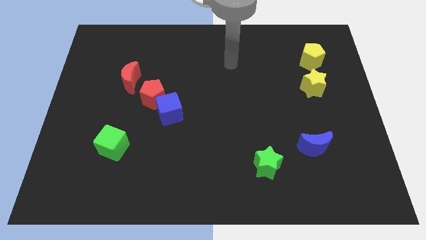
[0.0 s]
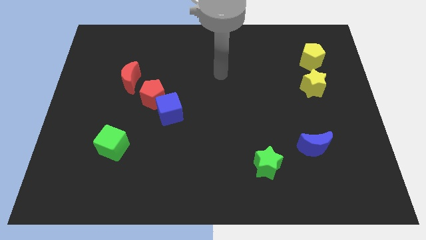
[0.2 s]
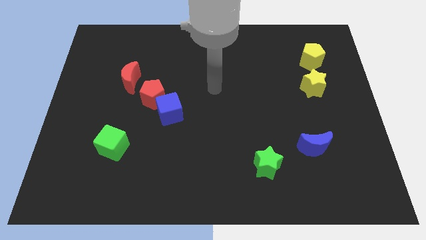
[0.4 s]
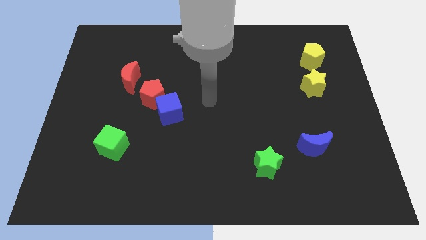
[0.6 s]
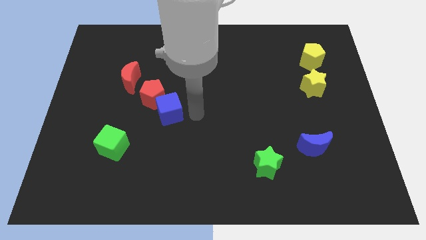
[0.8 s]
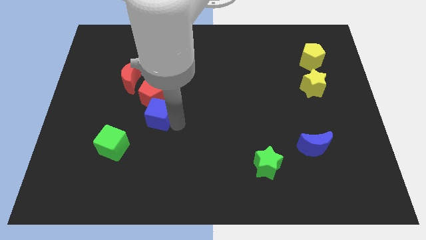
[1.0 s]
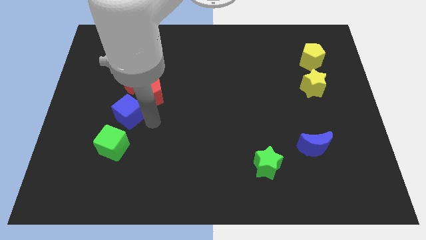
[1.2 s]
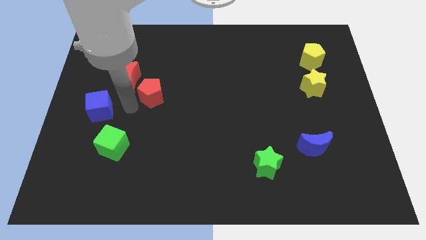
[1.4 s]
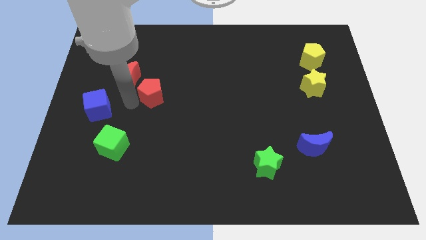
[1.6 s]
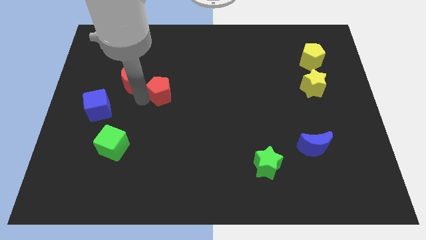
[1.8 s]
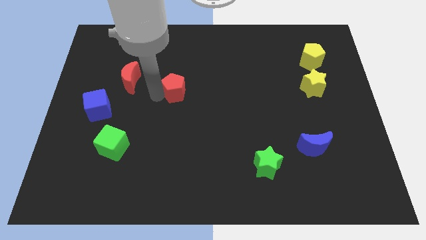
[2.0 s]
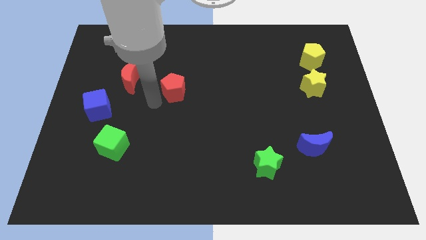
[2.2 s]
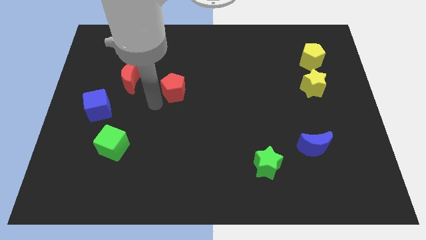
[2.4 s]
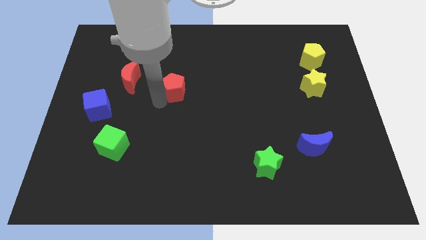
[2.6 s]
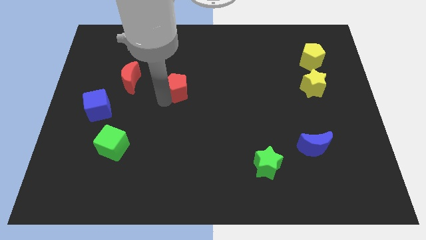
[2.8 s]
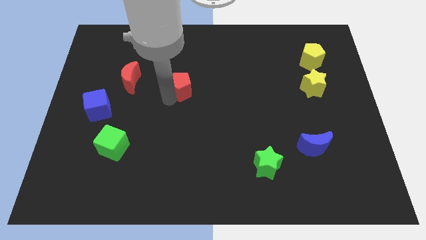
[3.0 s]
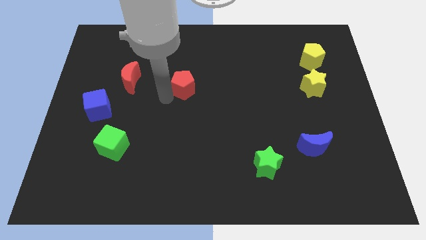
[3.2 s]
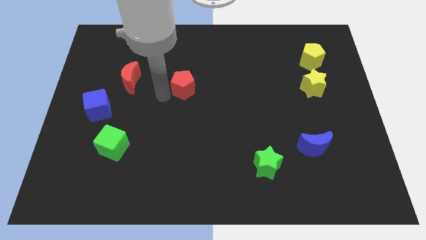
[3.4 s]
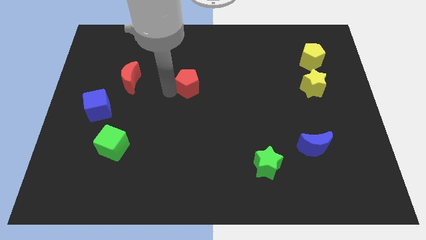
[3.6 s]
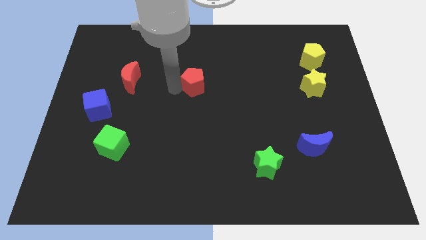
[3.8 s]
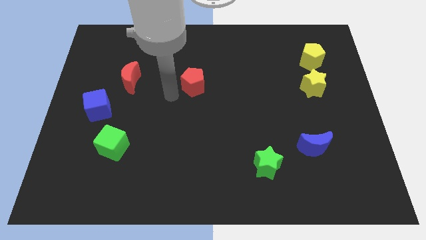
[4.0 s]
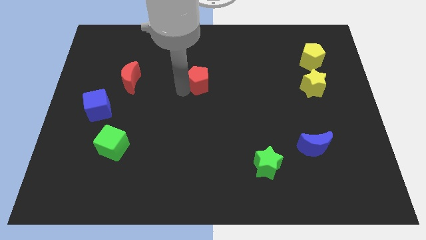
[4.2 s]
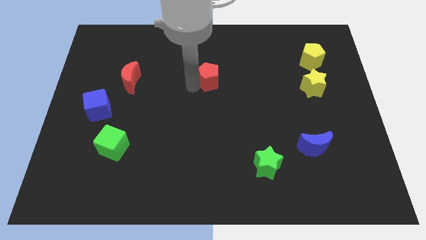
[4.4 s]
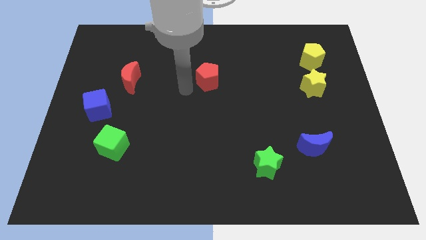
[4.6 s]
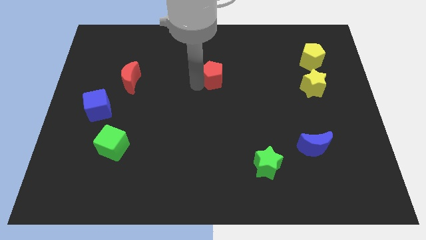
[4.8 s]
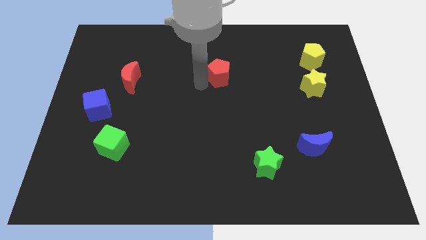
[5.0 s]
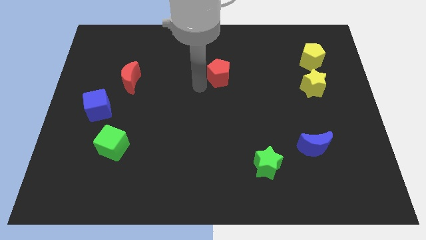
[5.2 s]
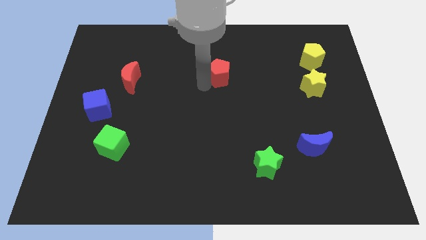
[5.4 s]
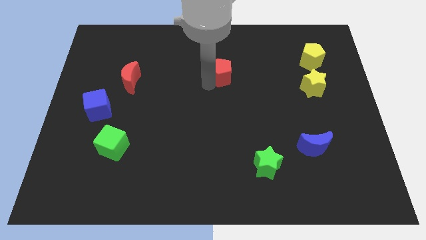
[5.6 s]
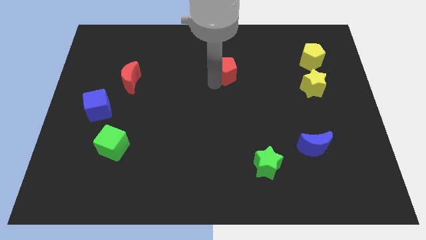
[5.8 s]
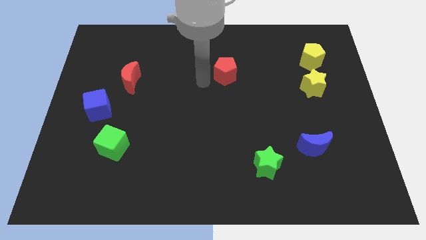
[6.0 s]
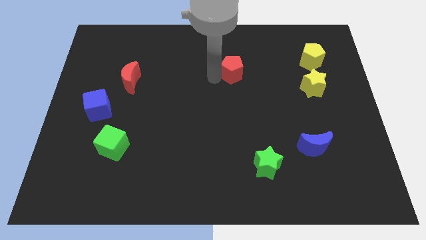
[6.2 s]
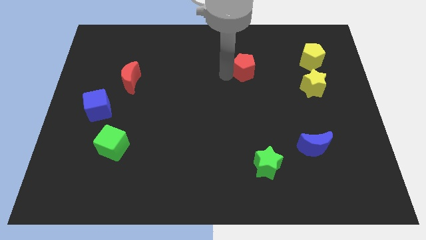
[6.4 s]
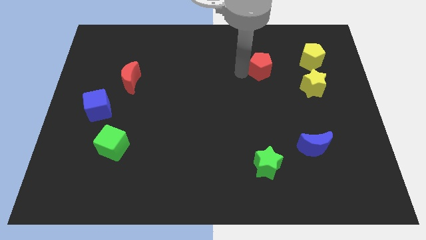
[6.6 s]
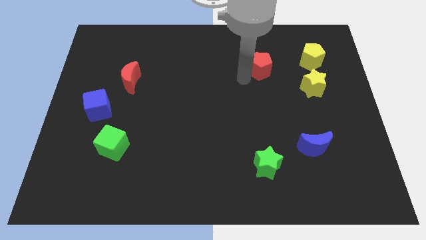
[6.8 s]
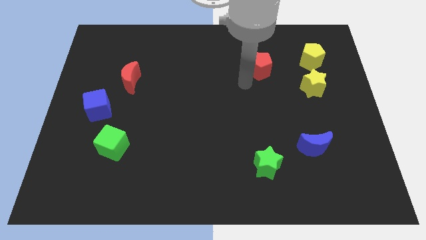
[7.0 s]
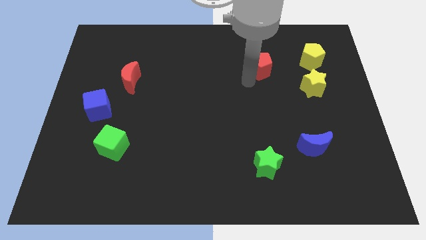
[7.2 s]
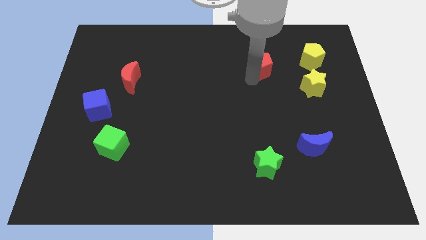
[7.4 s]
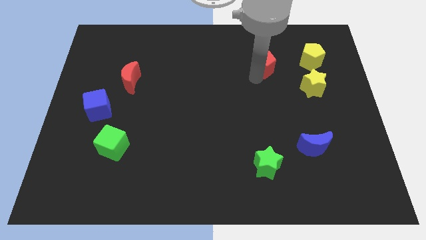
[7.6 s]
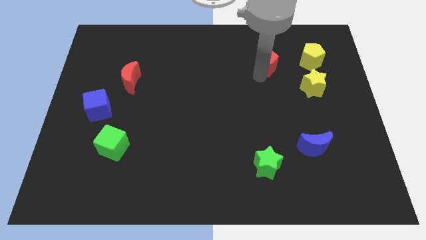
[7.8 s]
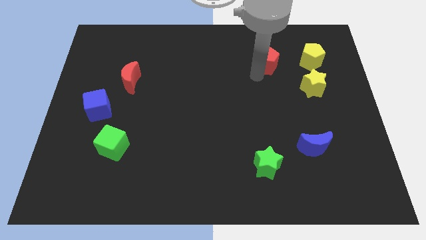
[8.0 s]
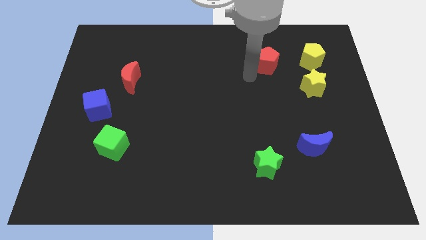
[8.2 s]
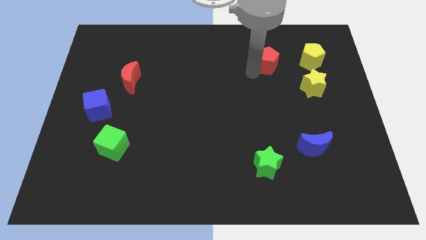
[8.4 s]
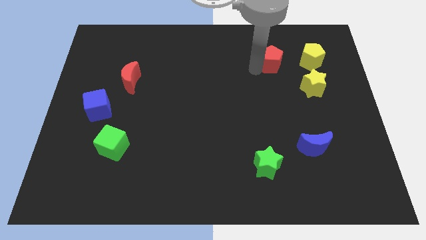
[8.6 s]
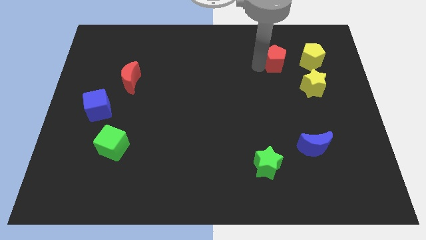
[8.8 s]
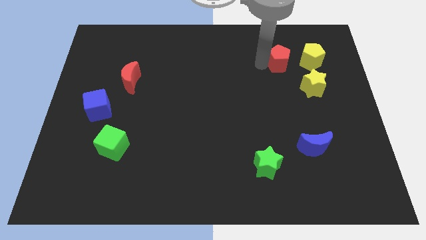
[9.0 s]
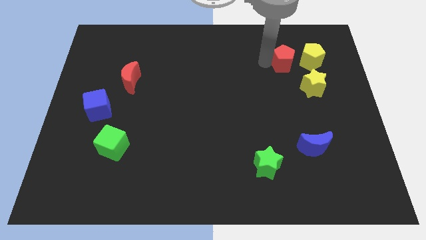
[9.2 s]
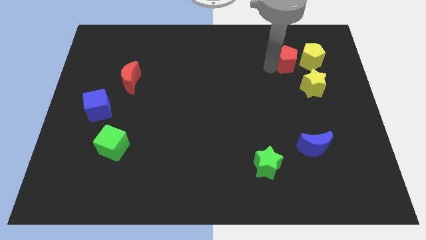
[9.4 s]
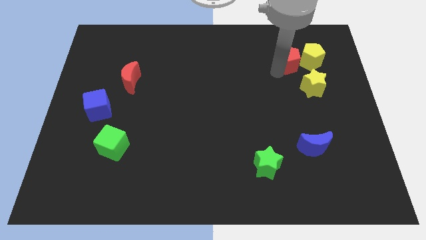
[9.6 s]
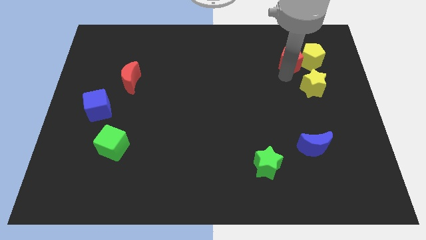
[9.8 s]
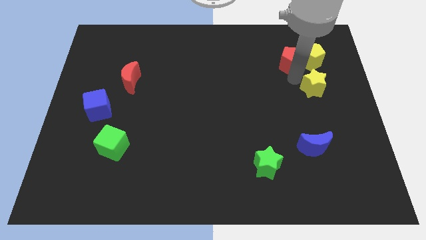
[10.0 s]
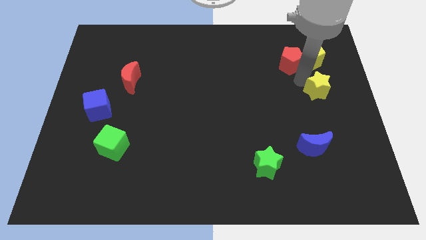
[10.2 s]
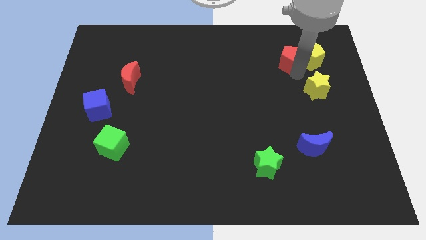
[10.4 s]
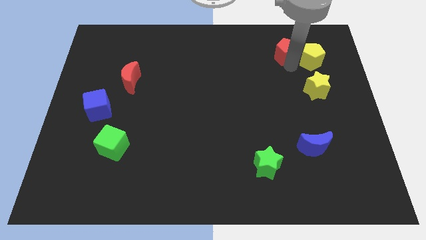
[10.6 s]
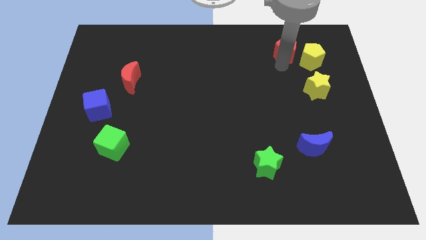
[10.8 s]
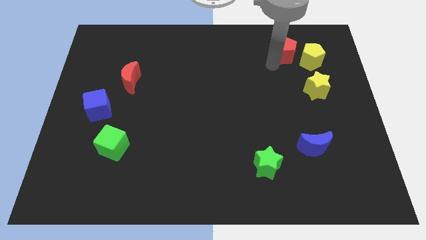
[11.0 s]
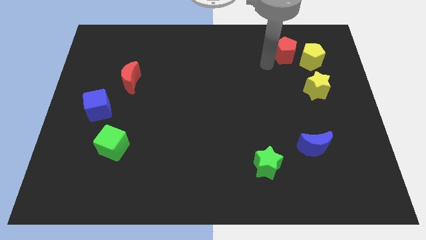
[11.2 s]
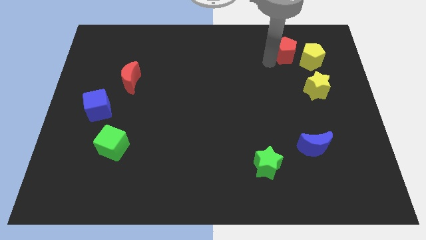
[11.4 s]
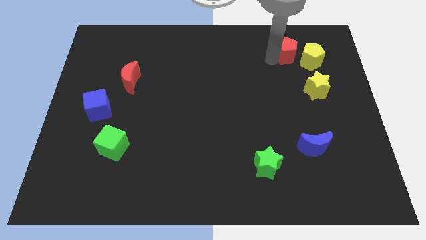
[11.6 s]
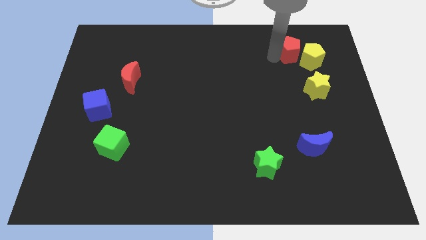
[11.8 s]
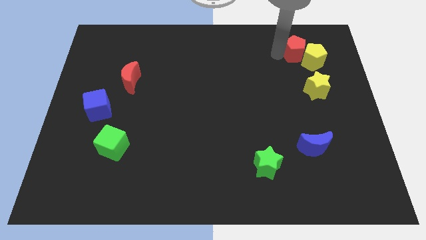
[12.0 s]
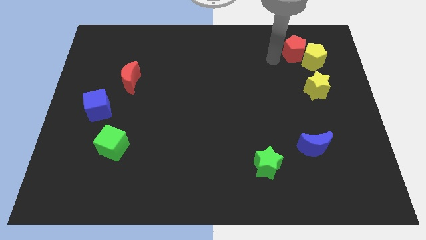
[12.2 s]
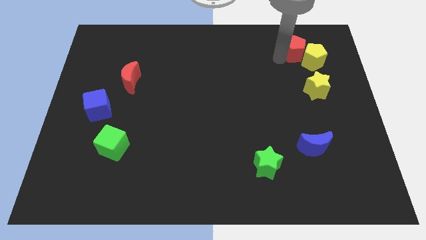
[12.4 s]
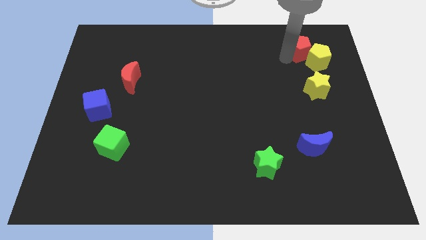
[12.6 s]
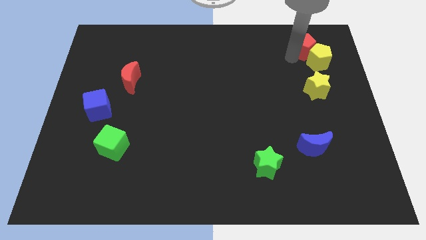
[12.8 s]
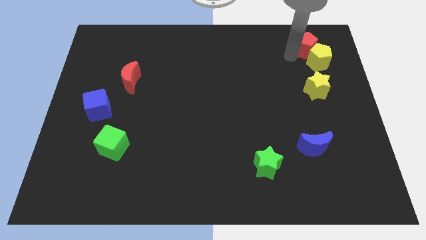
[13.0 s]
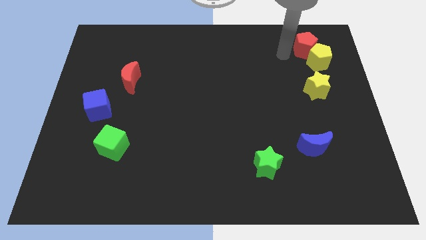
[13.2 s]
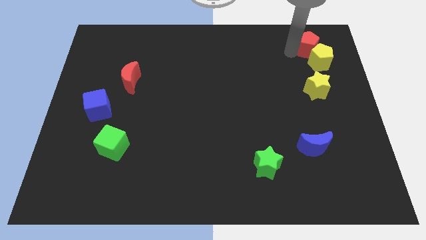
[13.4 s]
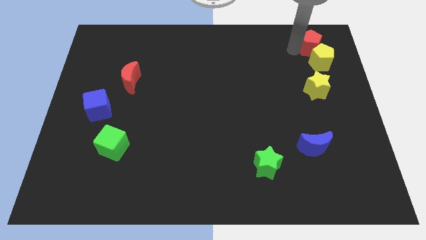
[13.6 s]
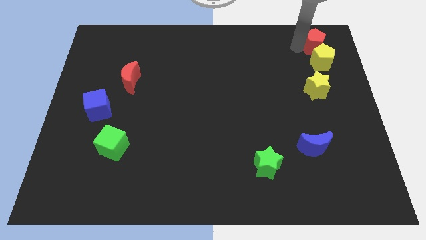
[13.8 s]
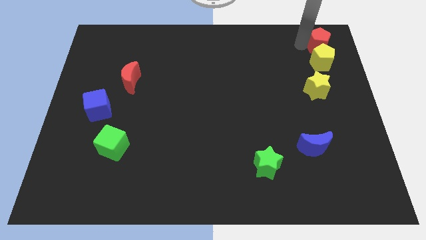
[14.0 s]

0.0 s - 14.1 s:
push the red pentagon to the top right corner
